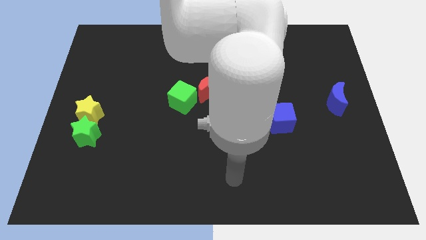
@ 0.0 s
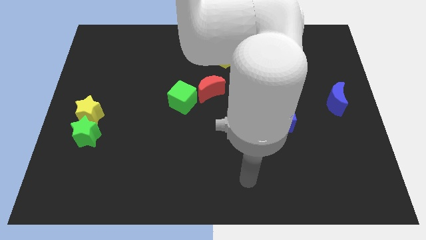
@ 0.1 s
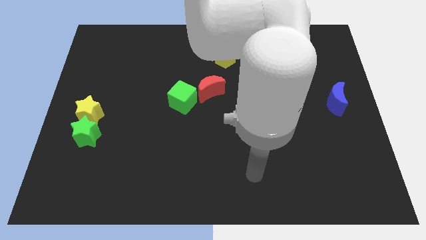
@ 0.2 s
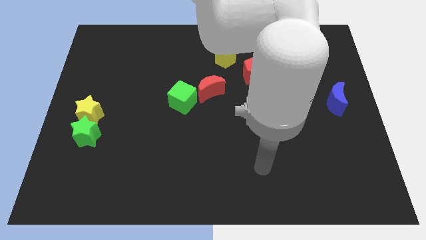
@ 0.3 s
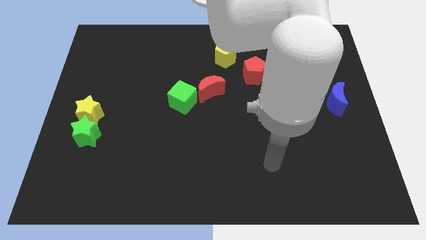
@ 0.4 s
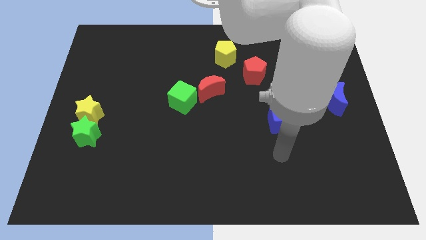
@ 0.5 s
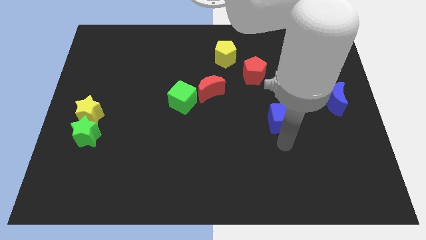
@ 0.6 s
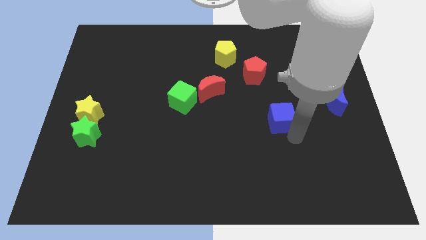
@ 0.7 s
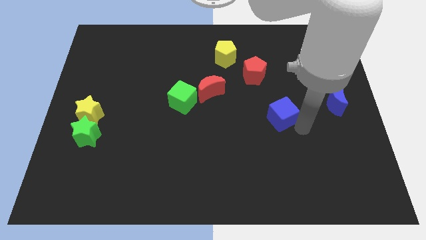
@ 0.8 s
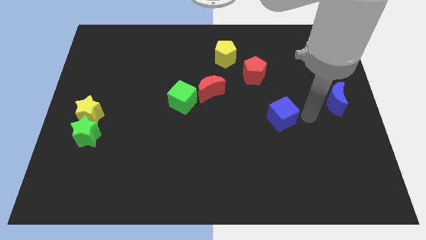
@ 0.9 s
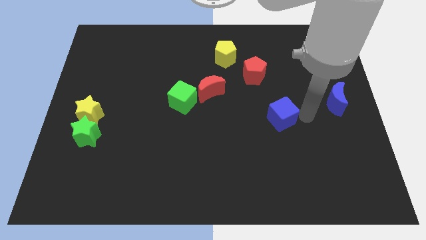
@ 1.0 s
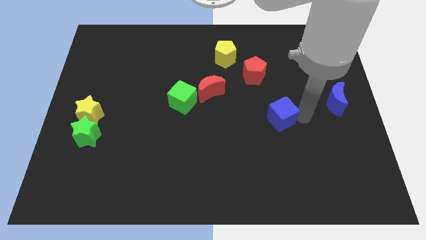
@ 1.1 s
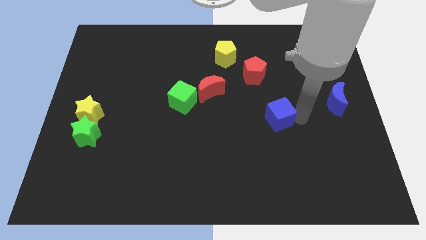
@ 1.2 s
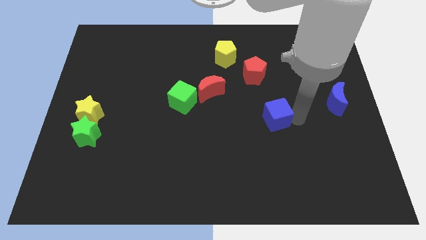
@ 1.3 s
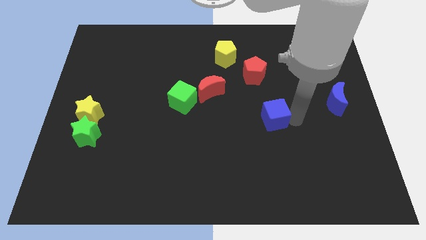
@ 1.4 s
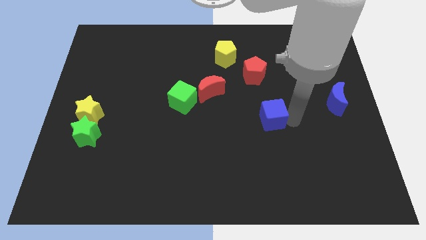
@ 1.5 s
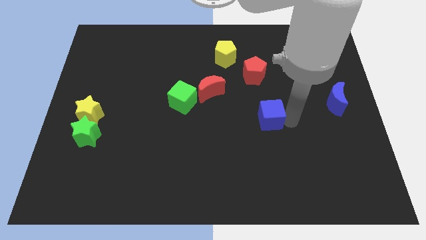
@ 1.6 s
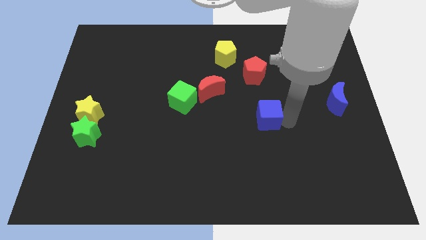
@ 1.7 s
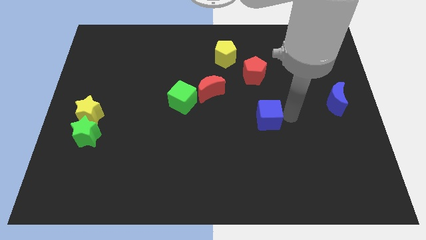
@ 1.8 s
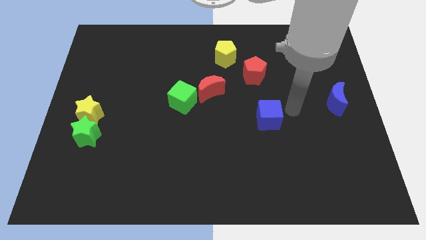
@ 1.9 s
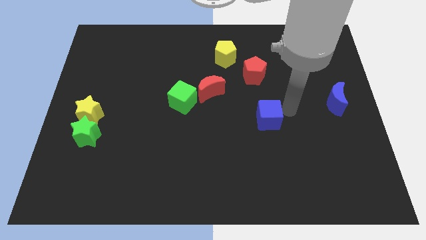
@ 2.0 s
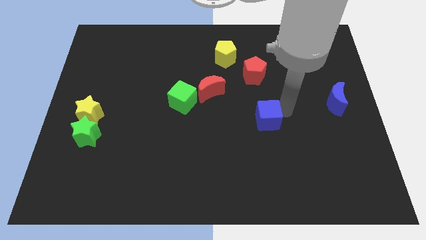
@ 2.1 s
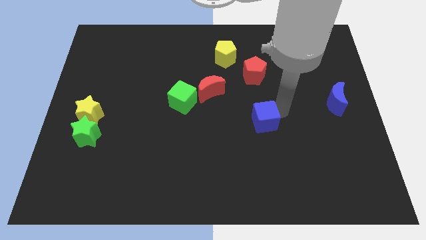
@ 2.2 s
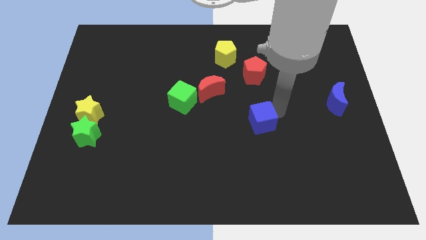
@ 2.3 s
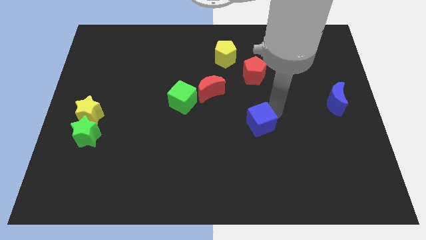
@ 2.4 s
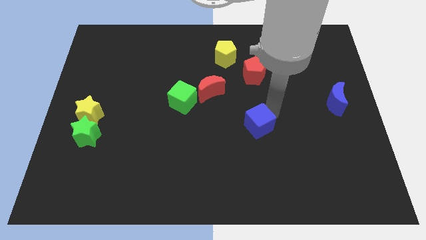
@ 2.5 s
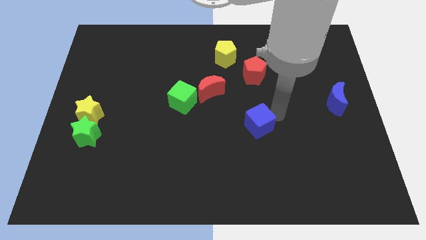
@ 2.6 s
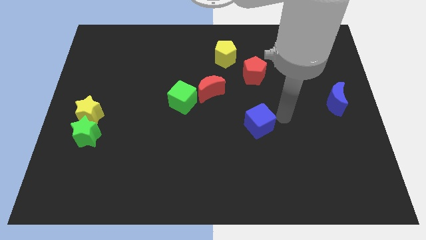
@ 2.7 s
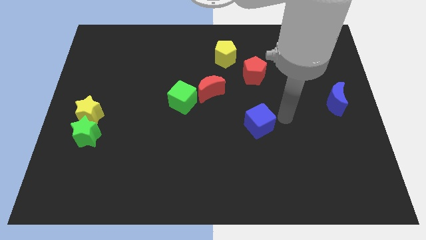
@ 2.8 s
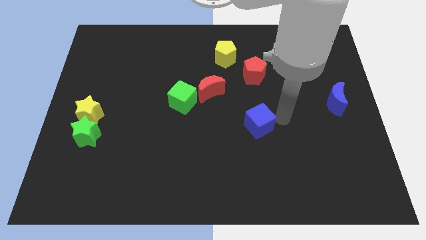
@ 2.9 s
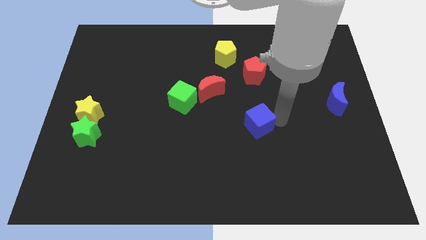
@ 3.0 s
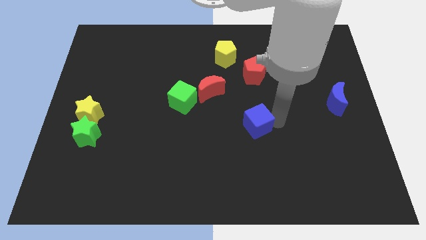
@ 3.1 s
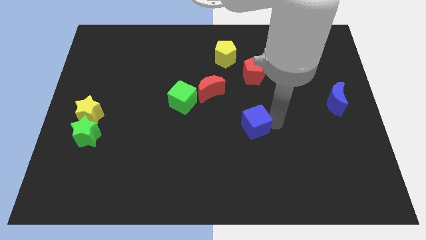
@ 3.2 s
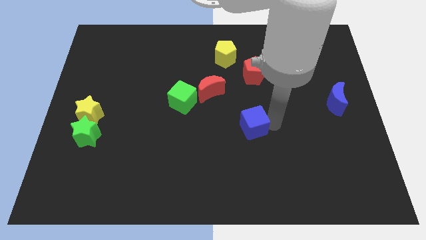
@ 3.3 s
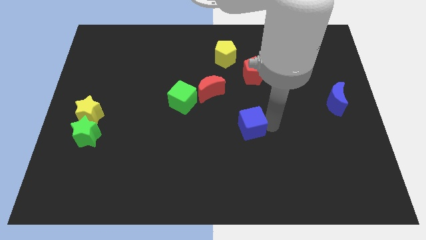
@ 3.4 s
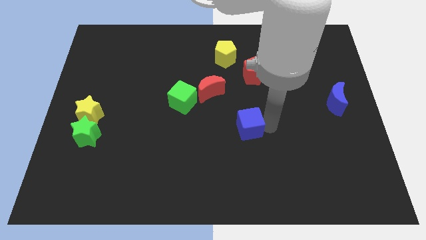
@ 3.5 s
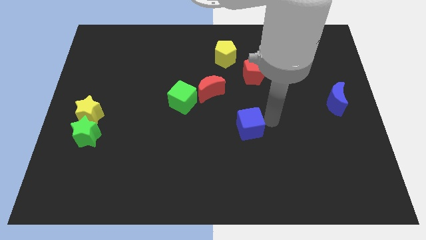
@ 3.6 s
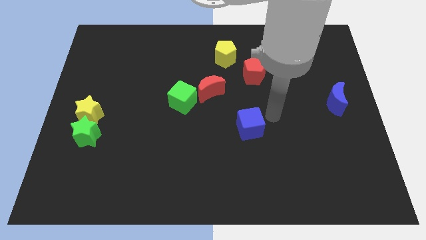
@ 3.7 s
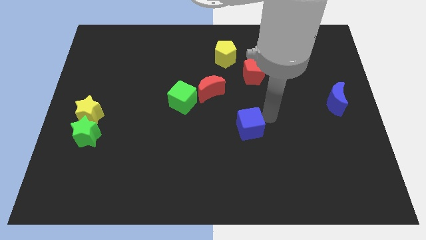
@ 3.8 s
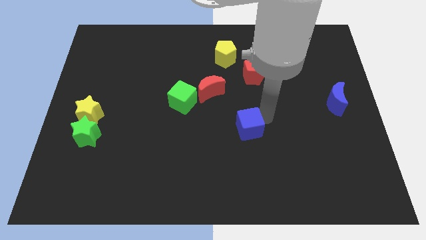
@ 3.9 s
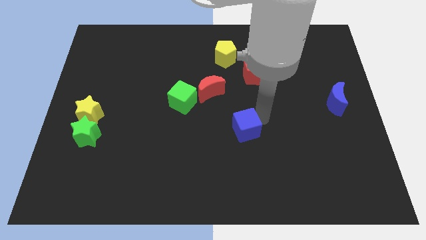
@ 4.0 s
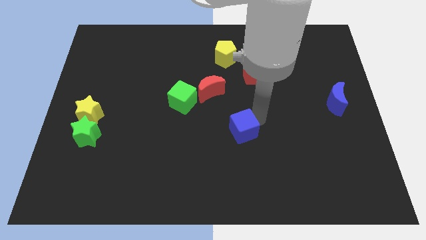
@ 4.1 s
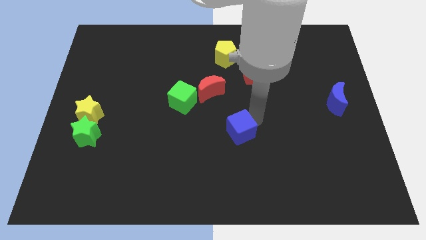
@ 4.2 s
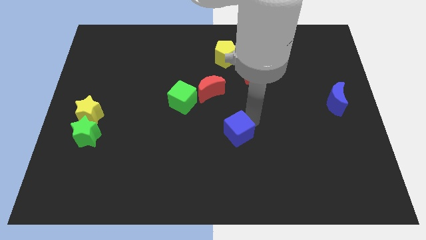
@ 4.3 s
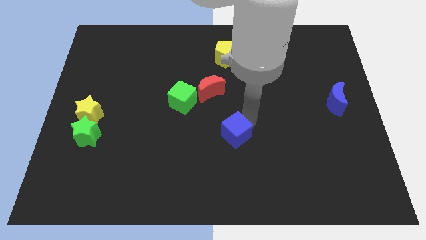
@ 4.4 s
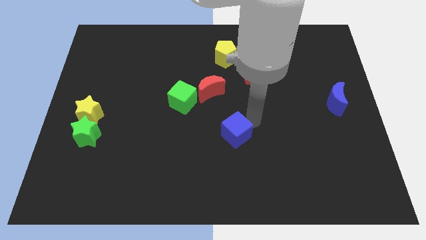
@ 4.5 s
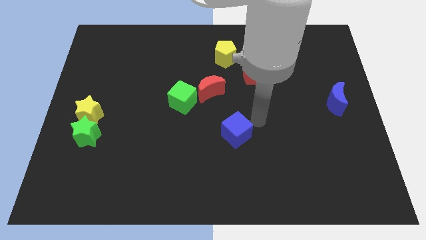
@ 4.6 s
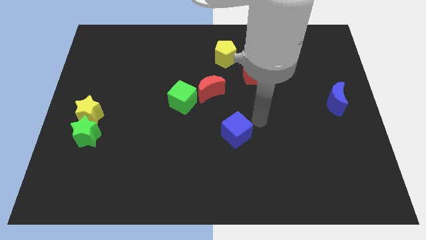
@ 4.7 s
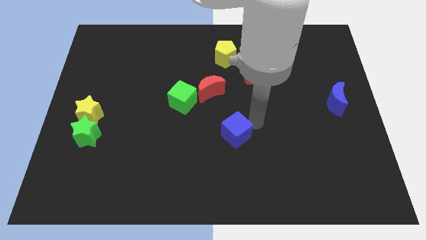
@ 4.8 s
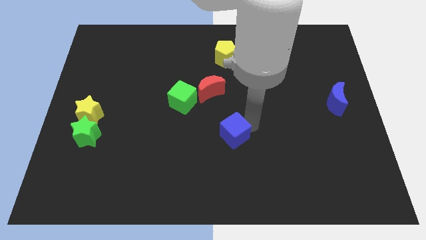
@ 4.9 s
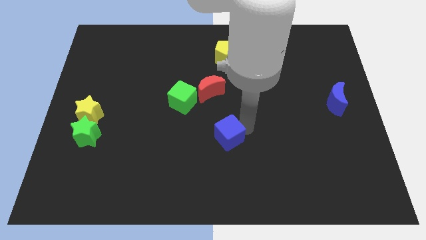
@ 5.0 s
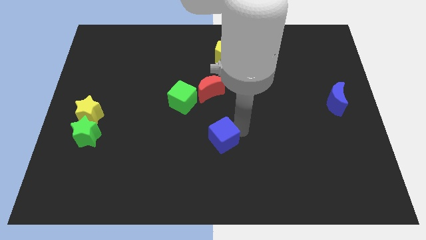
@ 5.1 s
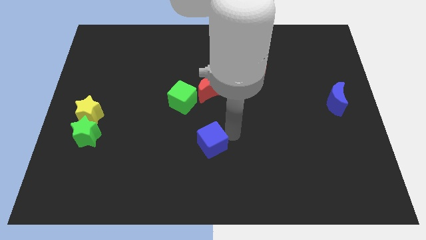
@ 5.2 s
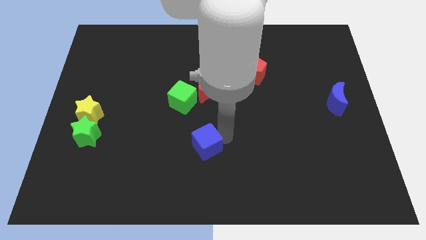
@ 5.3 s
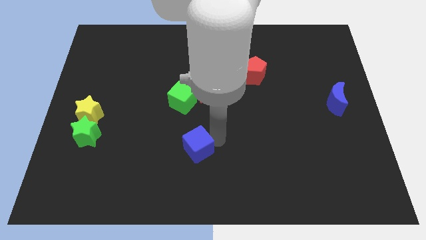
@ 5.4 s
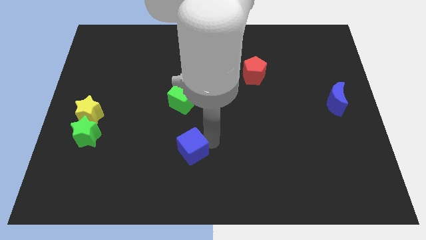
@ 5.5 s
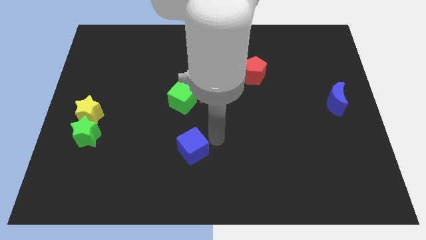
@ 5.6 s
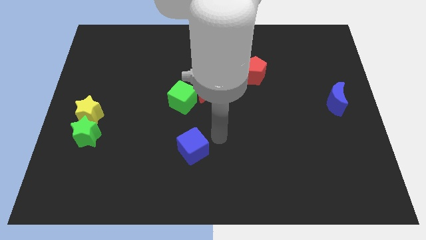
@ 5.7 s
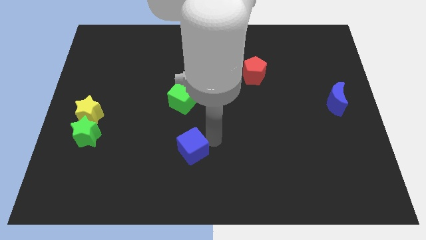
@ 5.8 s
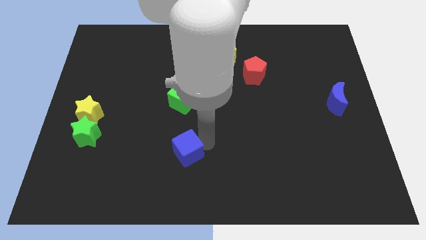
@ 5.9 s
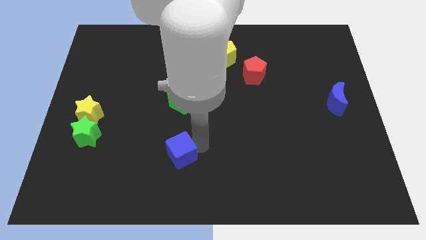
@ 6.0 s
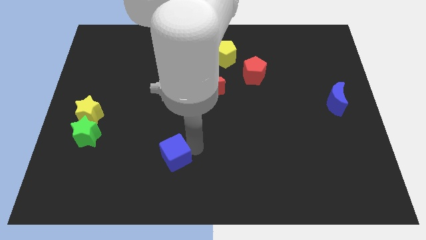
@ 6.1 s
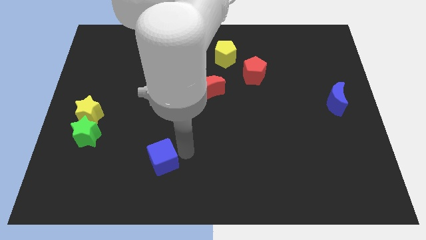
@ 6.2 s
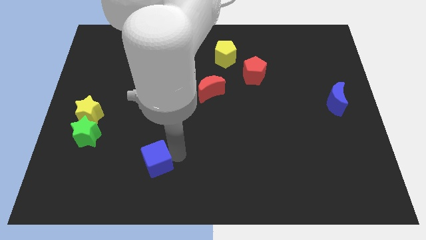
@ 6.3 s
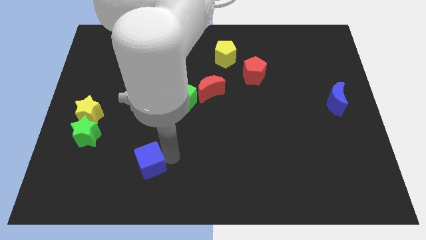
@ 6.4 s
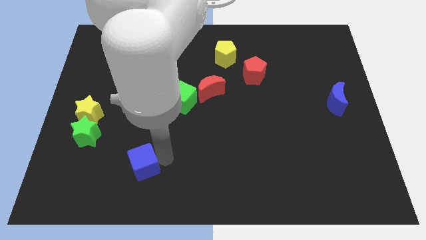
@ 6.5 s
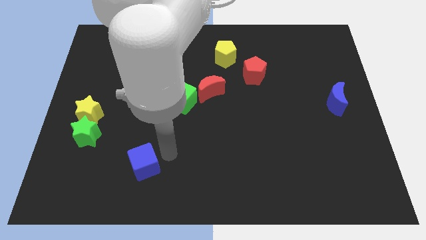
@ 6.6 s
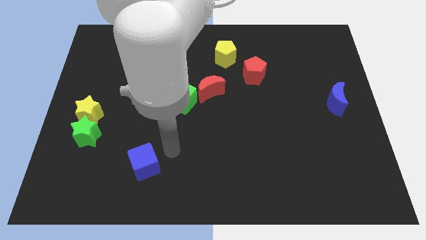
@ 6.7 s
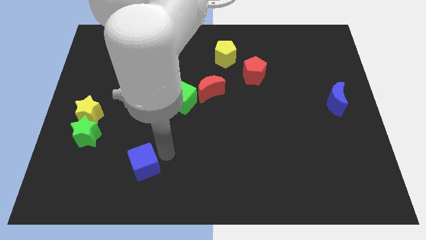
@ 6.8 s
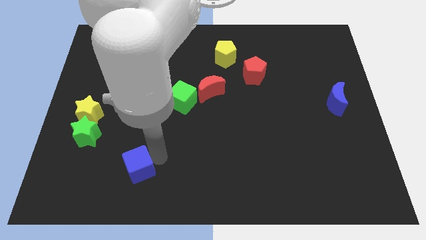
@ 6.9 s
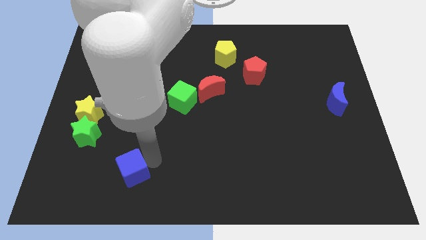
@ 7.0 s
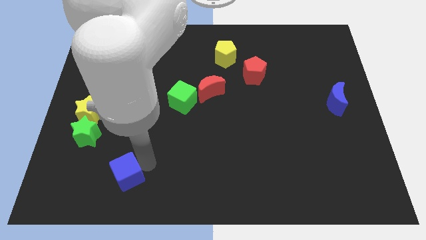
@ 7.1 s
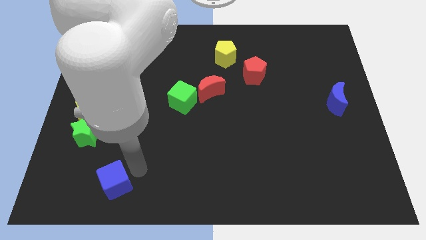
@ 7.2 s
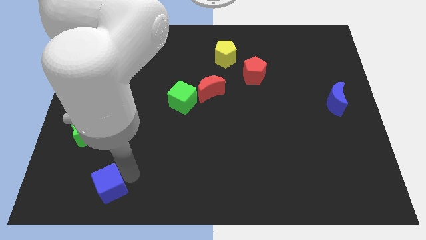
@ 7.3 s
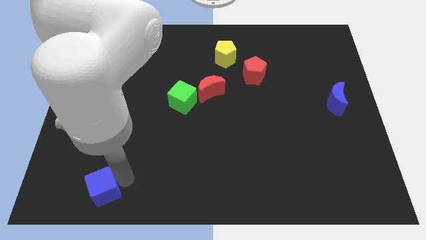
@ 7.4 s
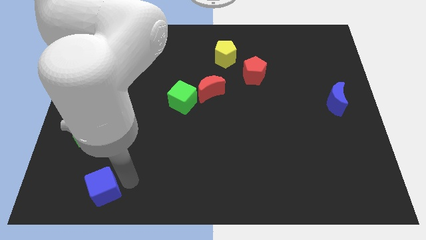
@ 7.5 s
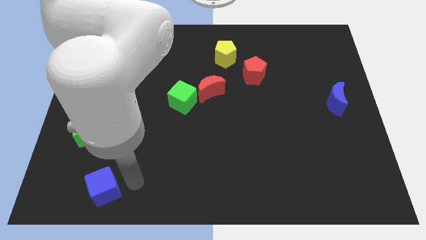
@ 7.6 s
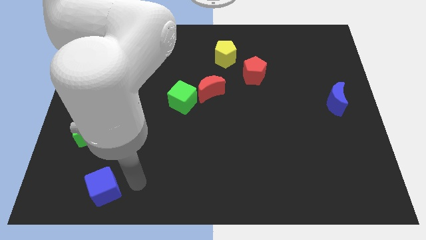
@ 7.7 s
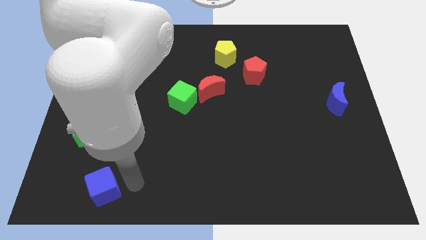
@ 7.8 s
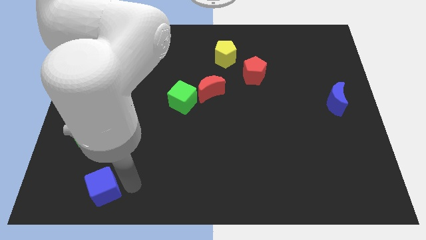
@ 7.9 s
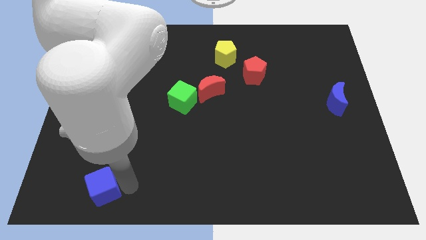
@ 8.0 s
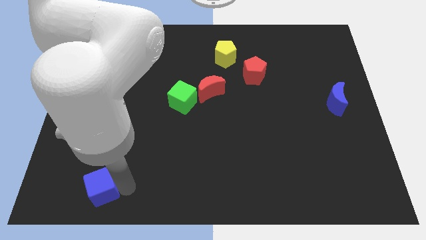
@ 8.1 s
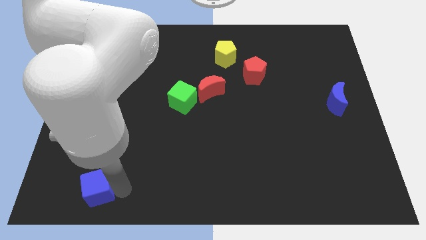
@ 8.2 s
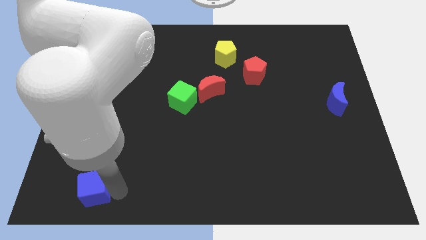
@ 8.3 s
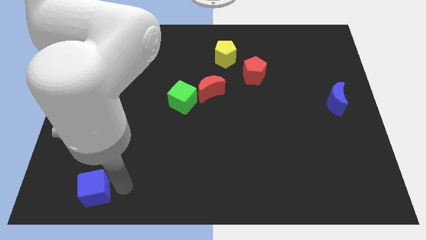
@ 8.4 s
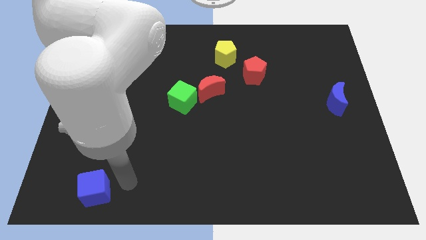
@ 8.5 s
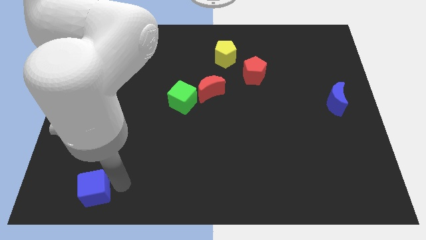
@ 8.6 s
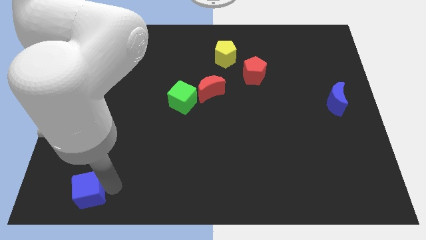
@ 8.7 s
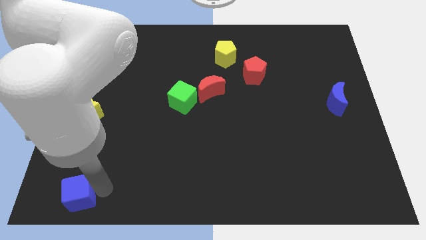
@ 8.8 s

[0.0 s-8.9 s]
push the blue cube to the bottom left of the board
